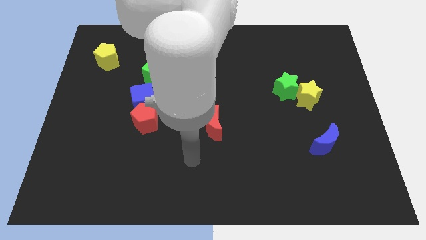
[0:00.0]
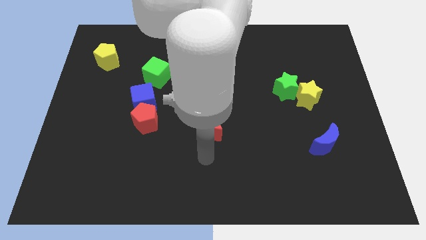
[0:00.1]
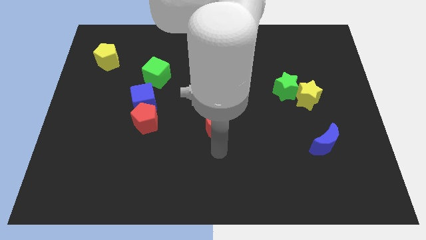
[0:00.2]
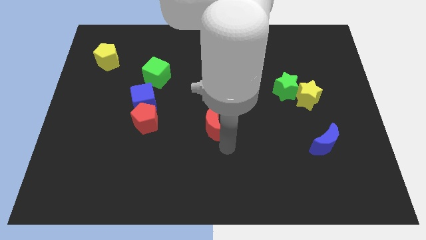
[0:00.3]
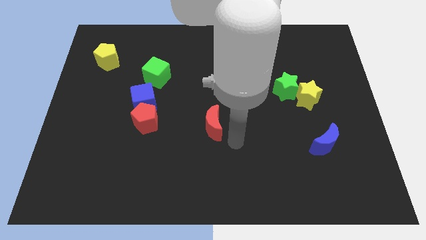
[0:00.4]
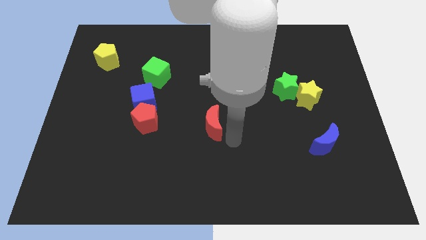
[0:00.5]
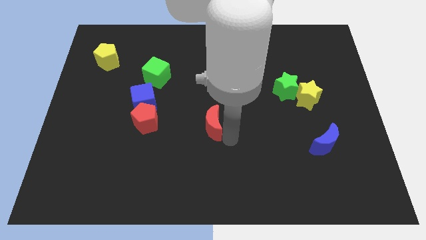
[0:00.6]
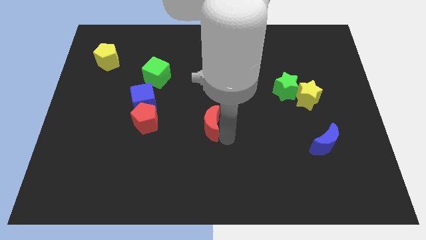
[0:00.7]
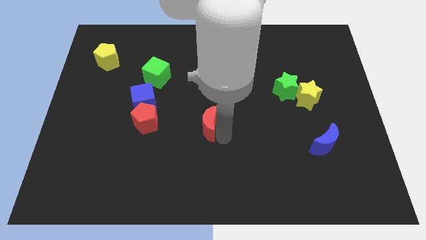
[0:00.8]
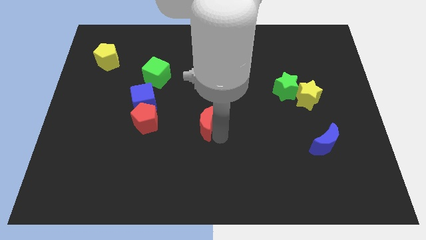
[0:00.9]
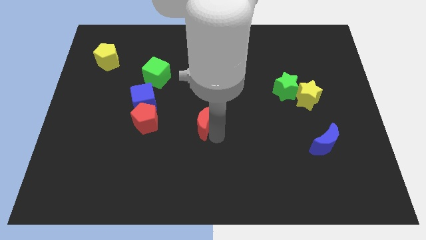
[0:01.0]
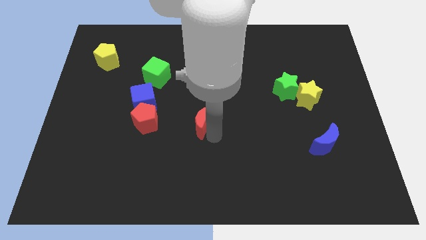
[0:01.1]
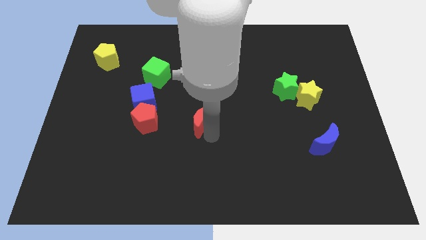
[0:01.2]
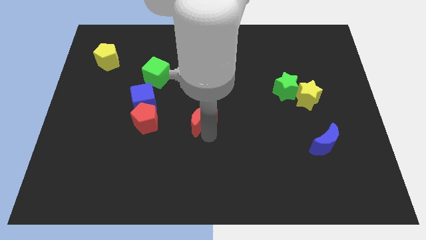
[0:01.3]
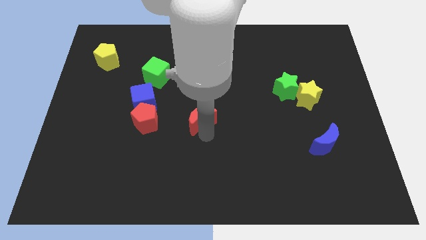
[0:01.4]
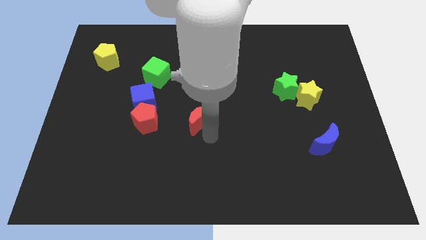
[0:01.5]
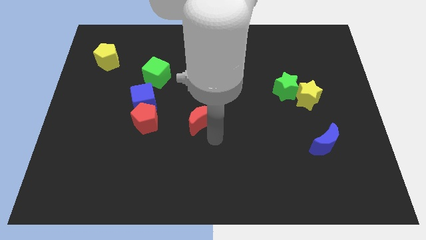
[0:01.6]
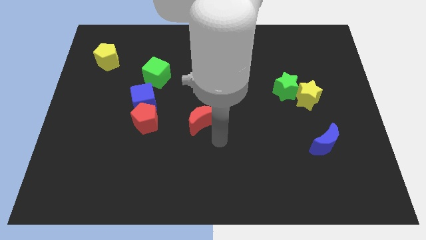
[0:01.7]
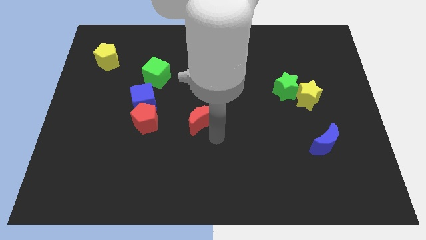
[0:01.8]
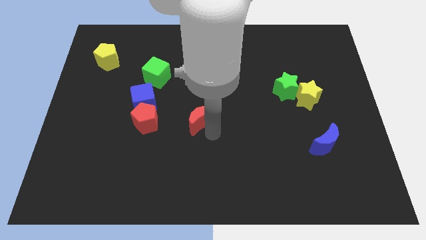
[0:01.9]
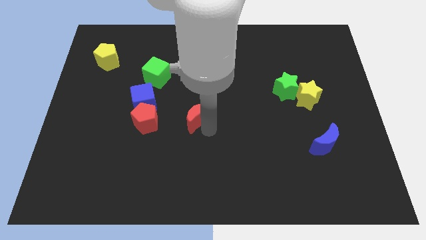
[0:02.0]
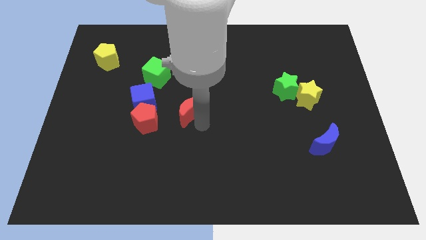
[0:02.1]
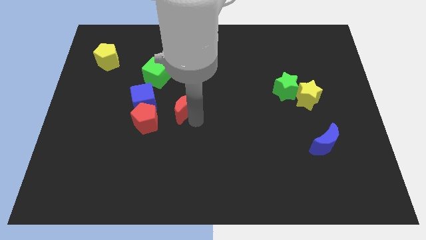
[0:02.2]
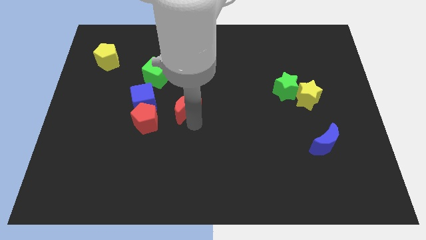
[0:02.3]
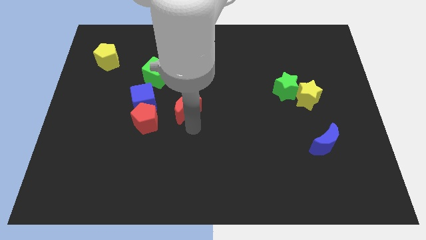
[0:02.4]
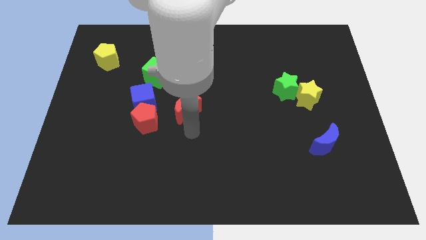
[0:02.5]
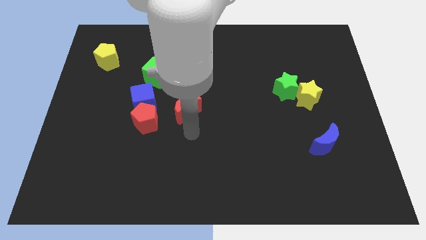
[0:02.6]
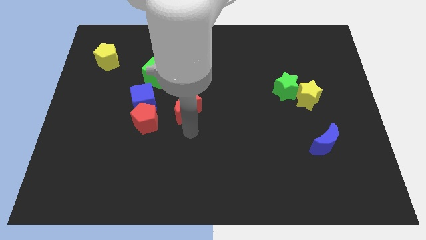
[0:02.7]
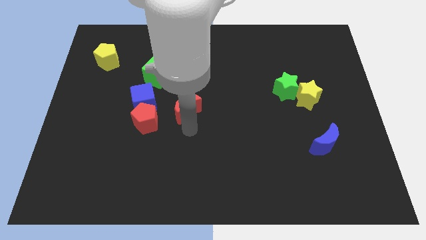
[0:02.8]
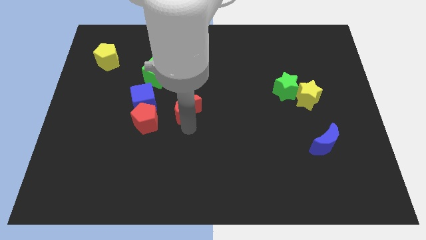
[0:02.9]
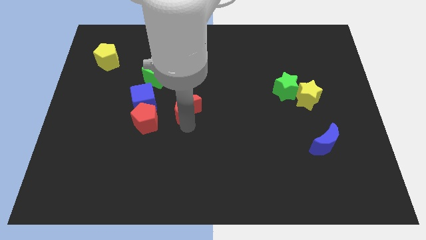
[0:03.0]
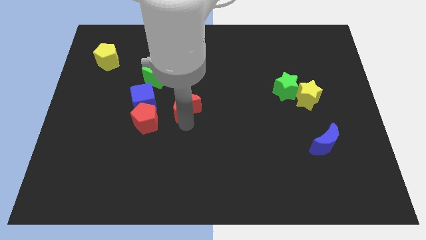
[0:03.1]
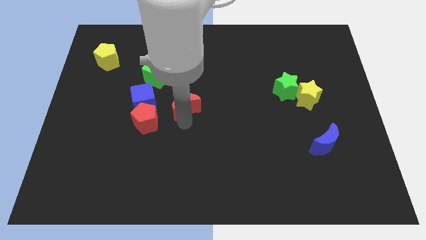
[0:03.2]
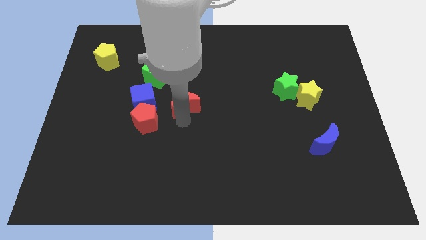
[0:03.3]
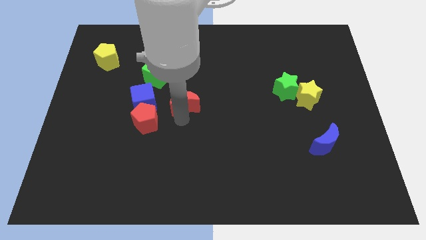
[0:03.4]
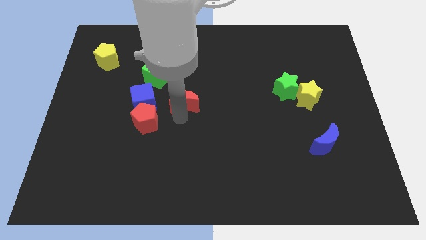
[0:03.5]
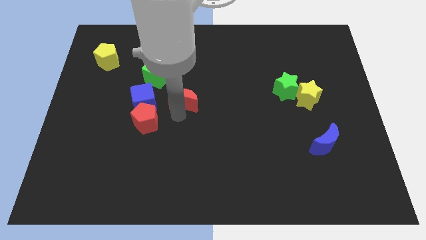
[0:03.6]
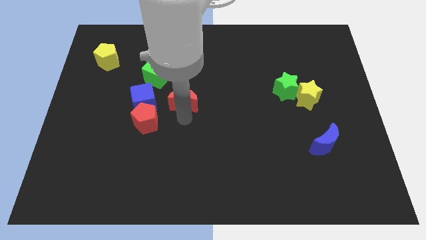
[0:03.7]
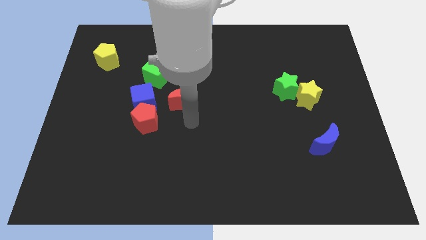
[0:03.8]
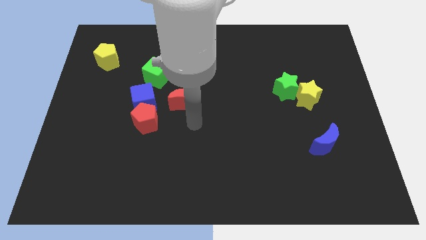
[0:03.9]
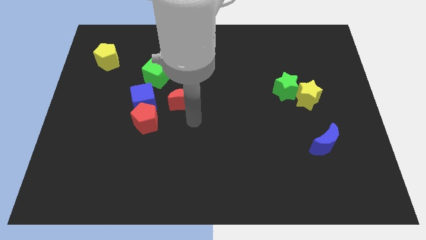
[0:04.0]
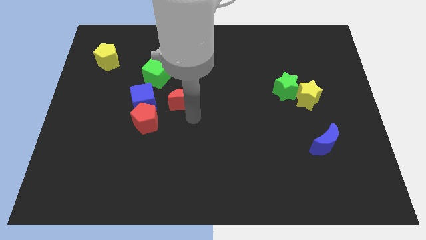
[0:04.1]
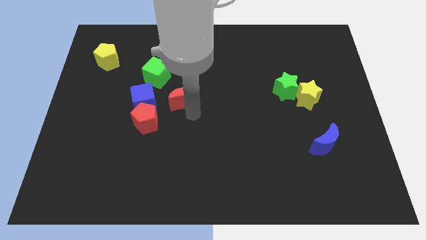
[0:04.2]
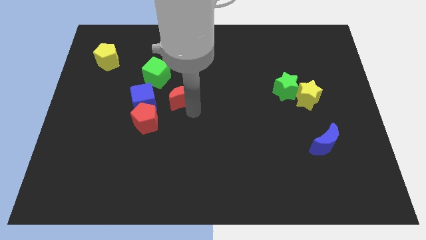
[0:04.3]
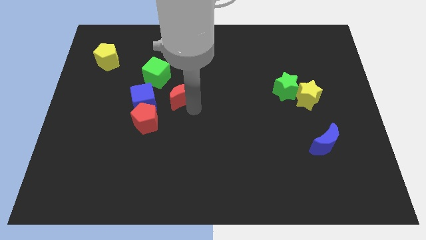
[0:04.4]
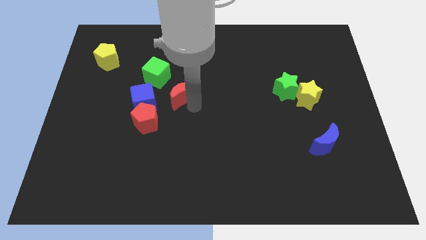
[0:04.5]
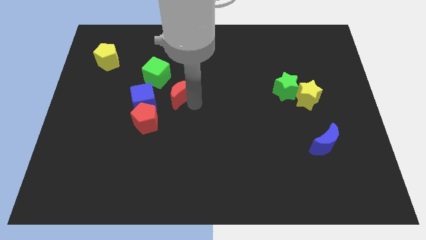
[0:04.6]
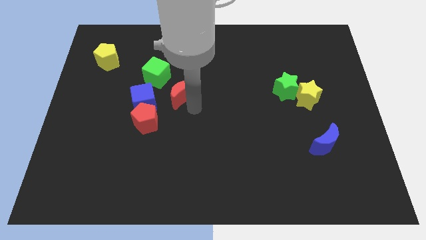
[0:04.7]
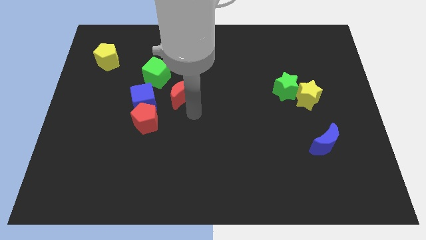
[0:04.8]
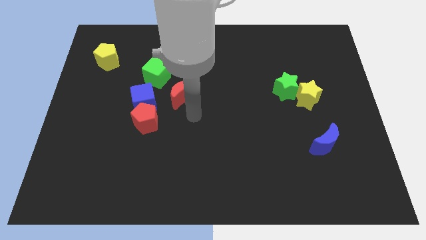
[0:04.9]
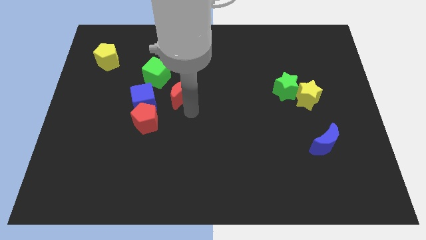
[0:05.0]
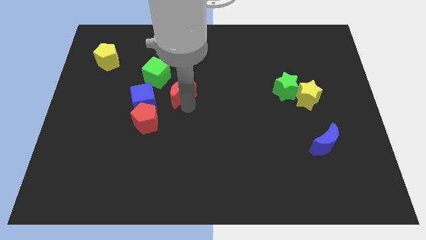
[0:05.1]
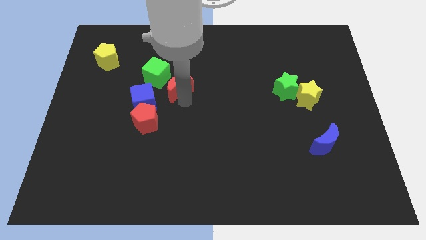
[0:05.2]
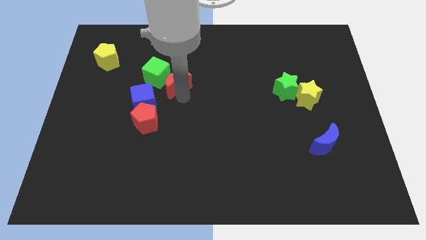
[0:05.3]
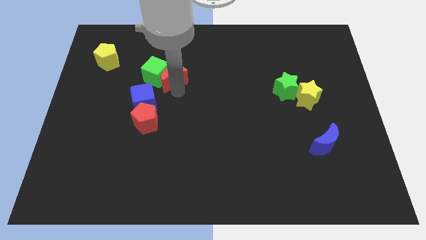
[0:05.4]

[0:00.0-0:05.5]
slide the red moon to the top right side of the green cube

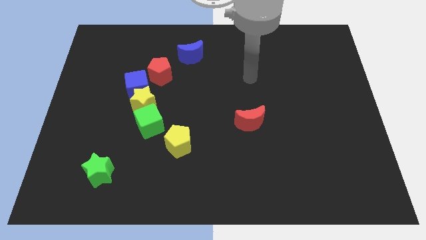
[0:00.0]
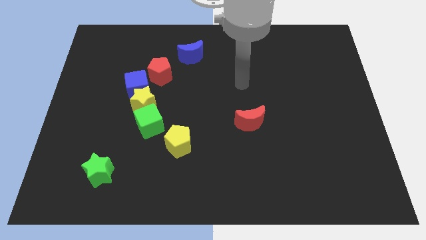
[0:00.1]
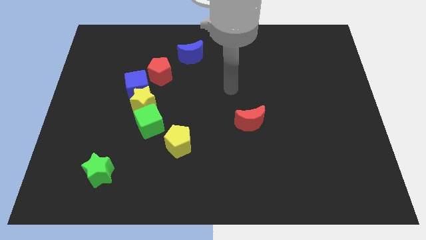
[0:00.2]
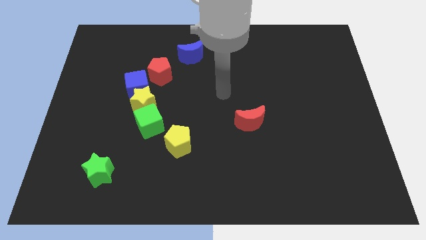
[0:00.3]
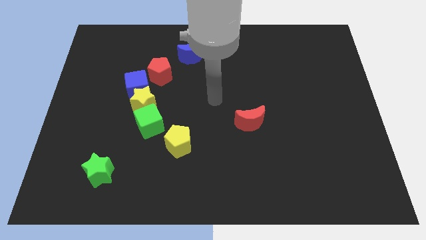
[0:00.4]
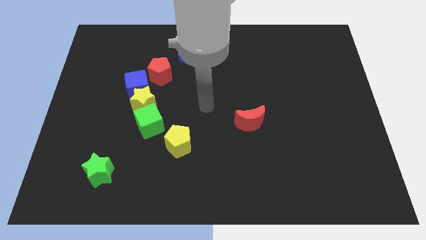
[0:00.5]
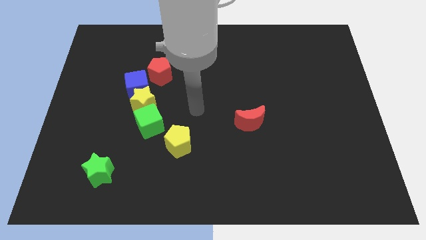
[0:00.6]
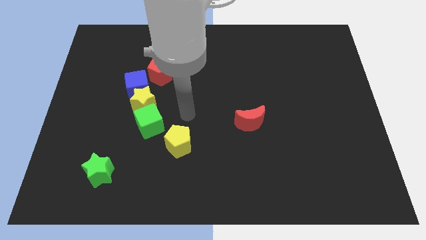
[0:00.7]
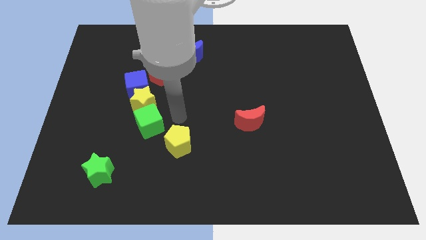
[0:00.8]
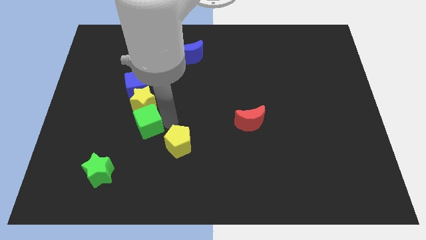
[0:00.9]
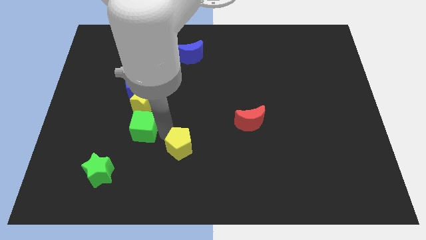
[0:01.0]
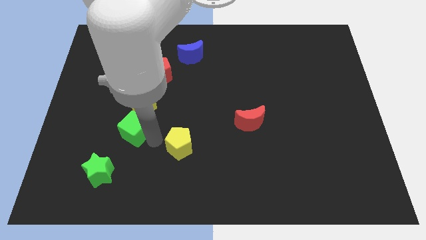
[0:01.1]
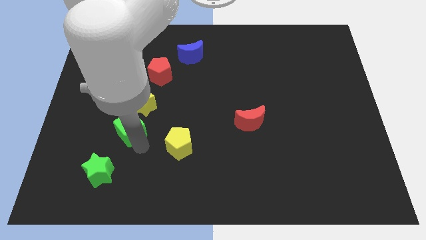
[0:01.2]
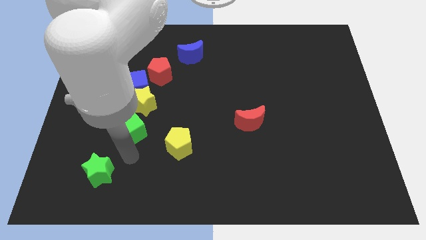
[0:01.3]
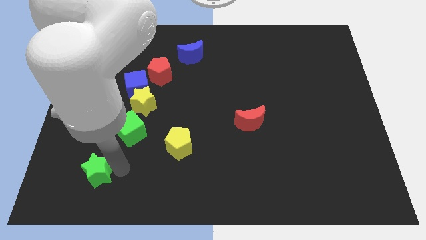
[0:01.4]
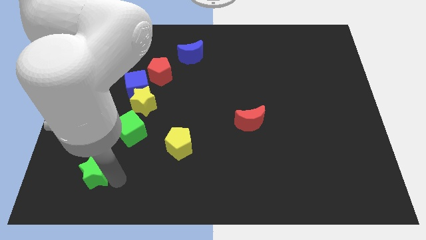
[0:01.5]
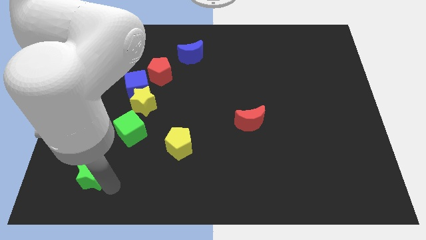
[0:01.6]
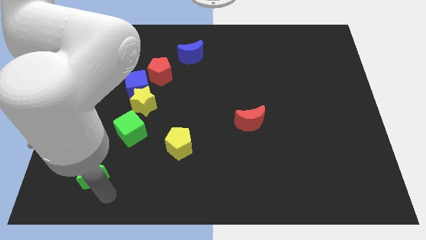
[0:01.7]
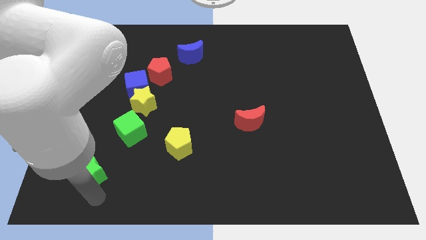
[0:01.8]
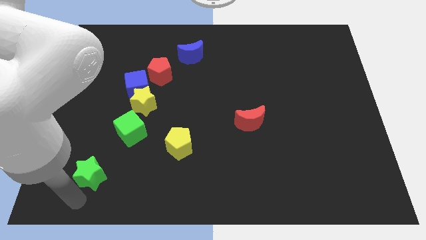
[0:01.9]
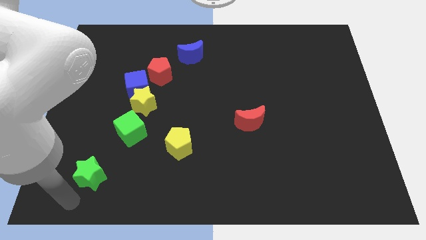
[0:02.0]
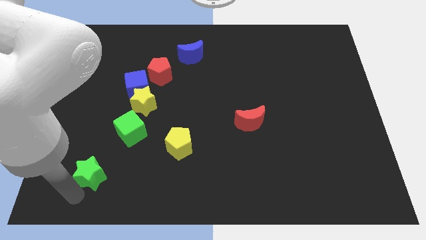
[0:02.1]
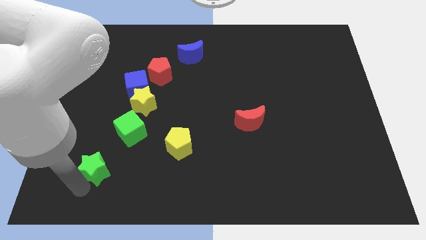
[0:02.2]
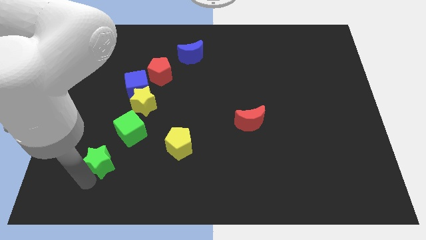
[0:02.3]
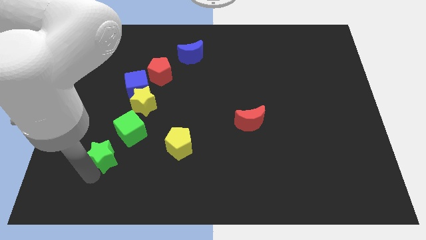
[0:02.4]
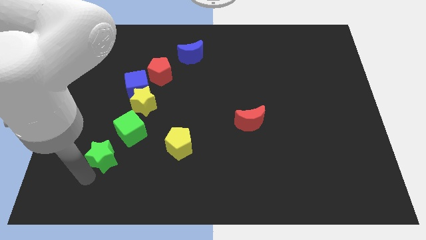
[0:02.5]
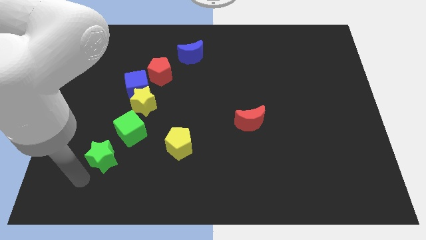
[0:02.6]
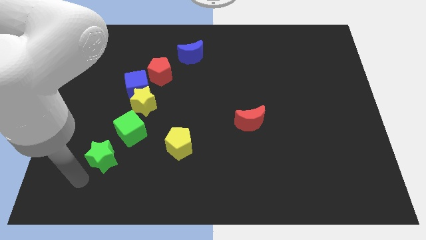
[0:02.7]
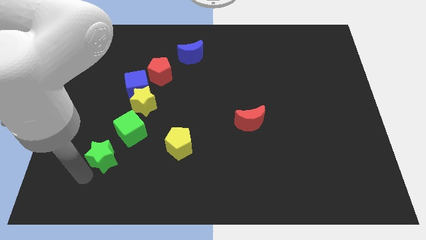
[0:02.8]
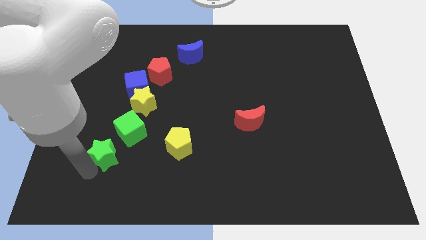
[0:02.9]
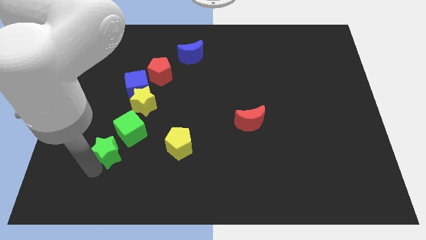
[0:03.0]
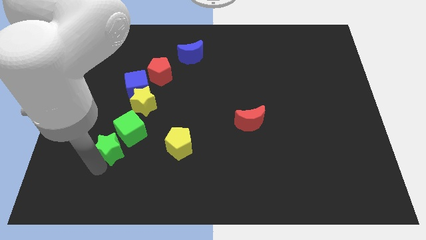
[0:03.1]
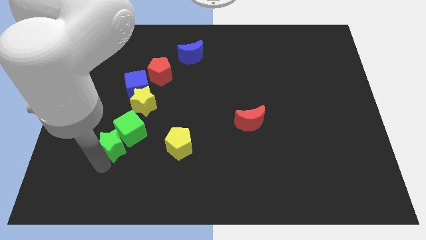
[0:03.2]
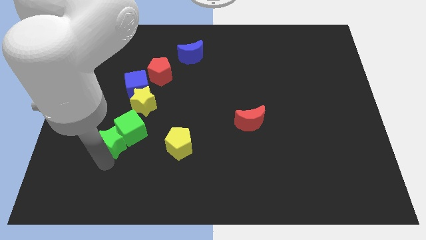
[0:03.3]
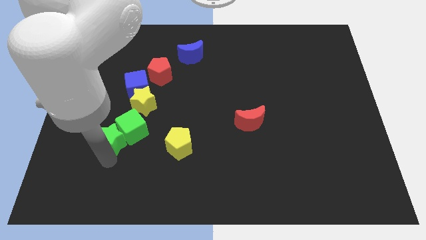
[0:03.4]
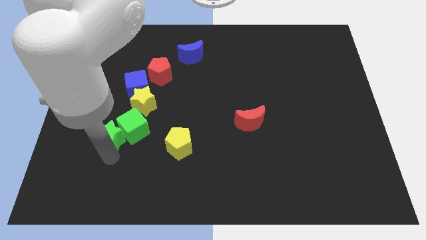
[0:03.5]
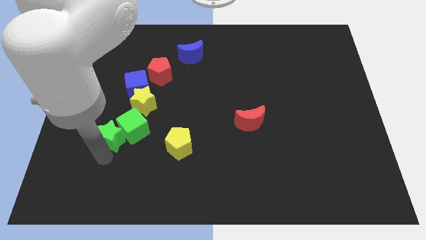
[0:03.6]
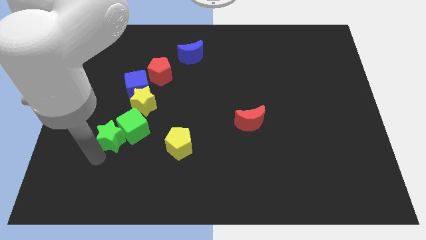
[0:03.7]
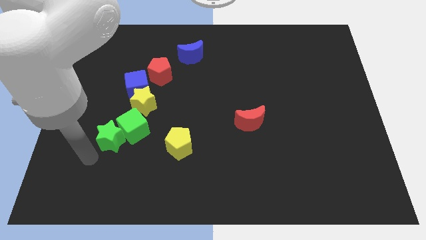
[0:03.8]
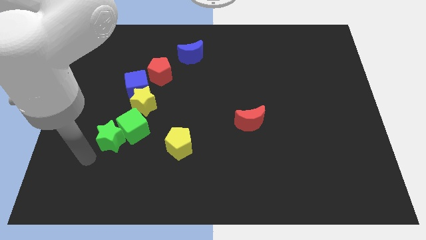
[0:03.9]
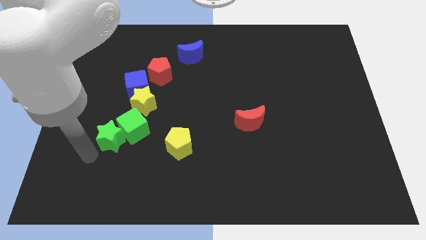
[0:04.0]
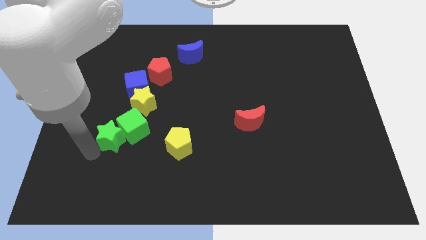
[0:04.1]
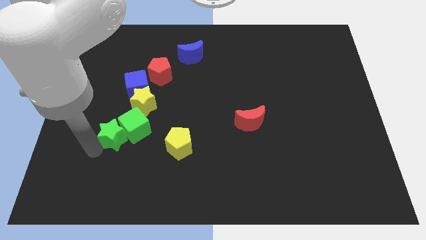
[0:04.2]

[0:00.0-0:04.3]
put the green star below the blue cube
